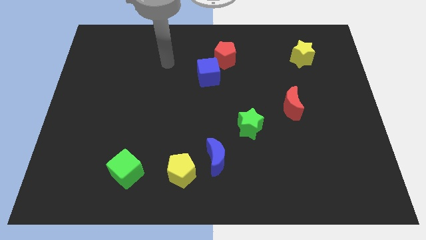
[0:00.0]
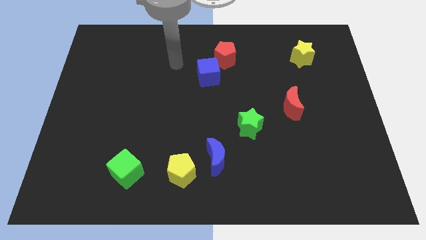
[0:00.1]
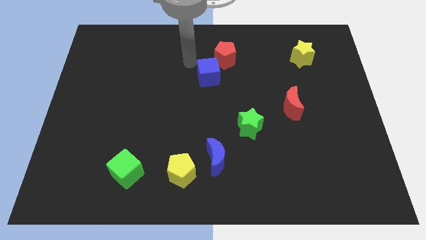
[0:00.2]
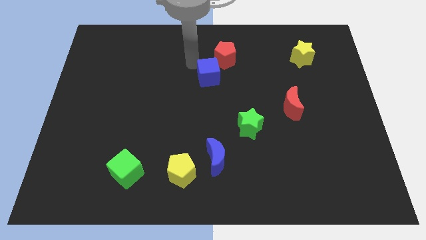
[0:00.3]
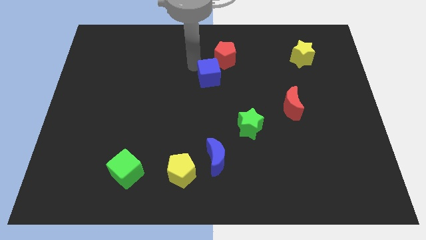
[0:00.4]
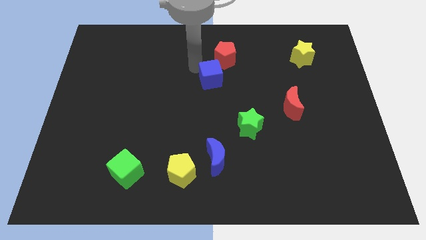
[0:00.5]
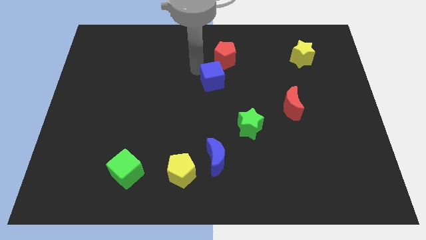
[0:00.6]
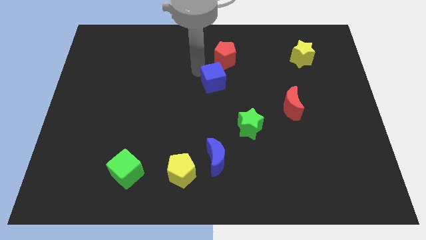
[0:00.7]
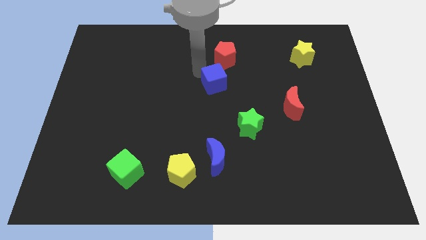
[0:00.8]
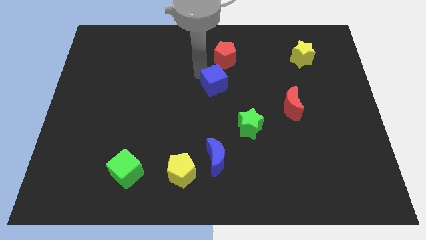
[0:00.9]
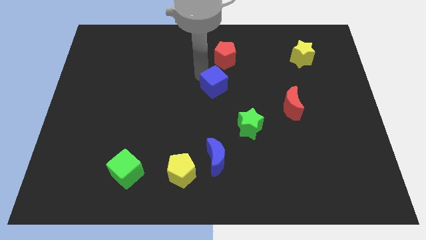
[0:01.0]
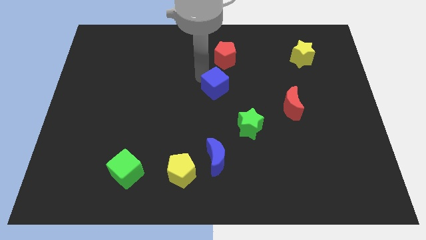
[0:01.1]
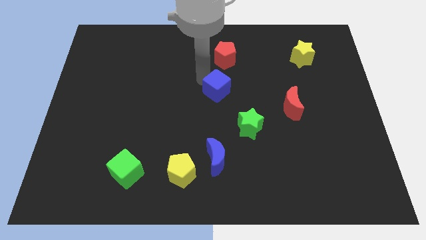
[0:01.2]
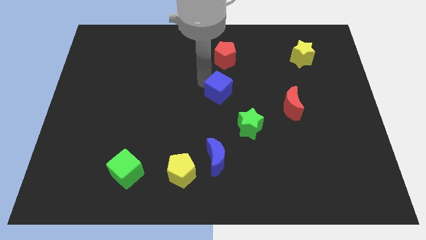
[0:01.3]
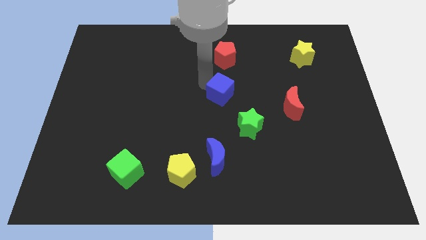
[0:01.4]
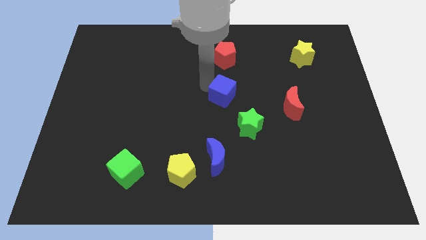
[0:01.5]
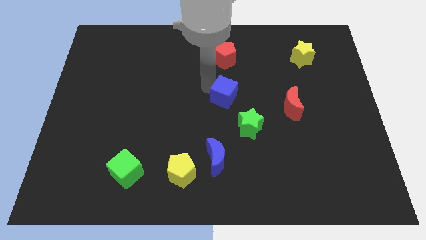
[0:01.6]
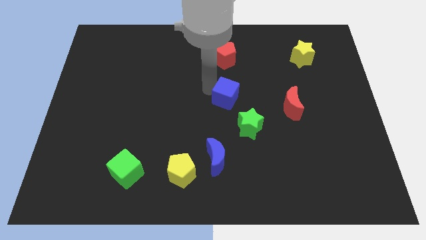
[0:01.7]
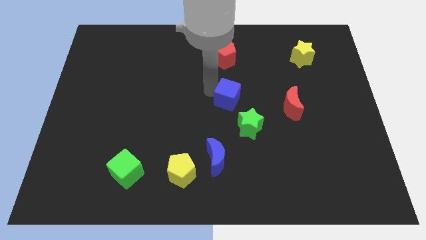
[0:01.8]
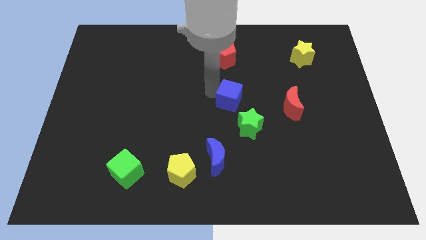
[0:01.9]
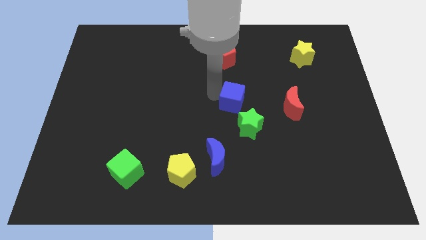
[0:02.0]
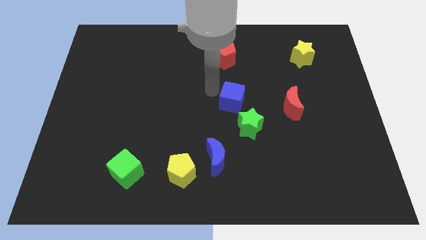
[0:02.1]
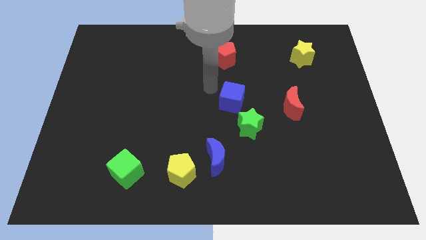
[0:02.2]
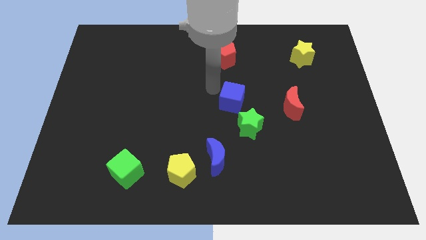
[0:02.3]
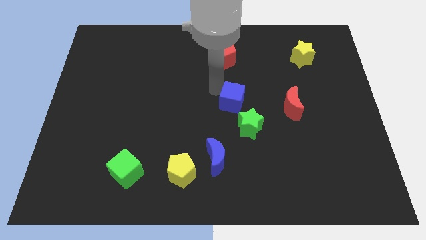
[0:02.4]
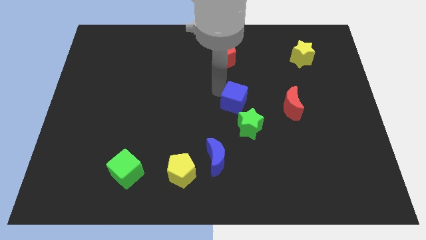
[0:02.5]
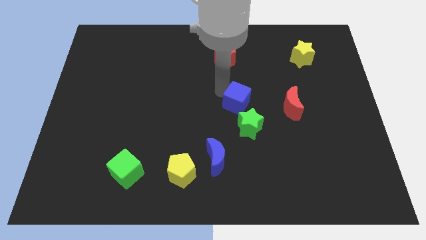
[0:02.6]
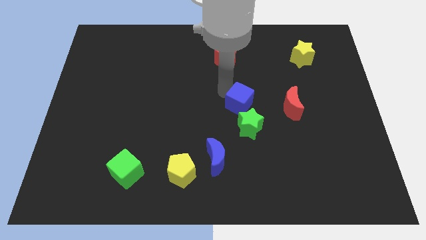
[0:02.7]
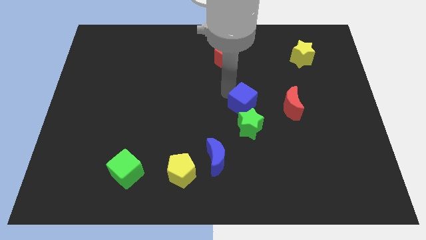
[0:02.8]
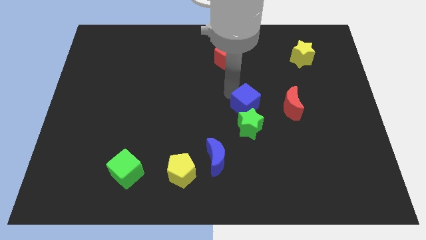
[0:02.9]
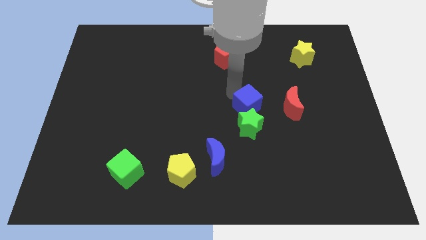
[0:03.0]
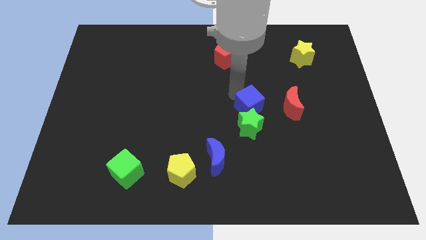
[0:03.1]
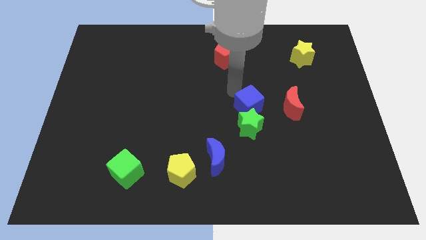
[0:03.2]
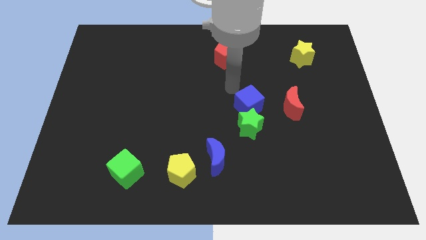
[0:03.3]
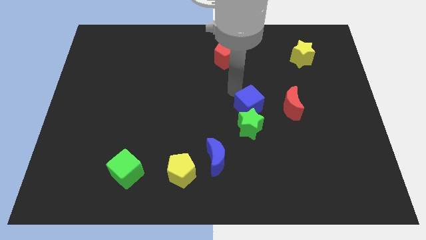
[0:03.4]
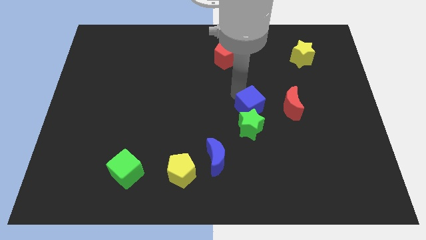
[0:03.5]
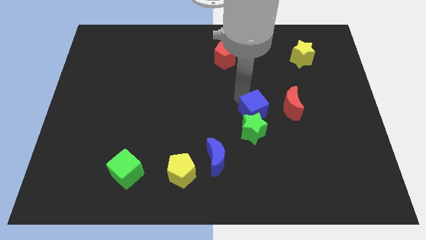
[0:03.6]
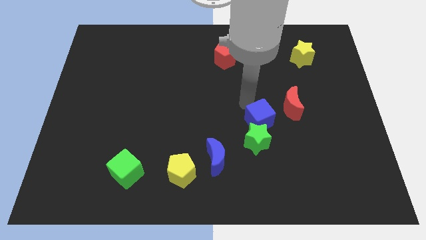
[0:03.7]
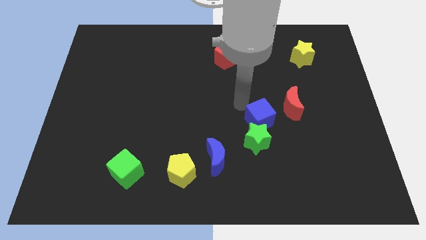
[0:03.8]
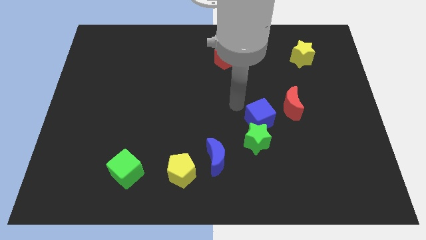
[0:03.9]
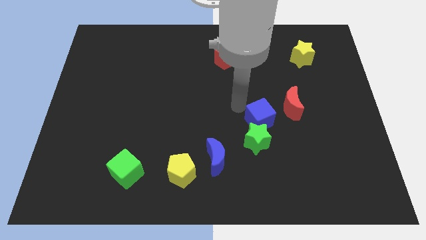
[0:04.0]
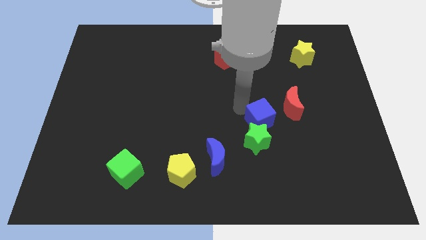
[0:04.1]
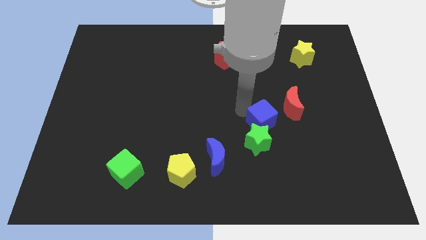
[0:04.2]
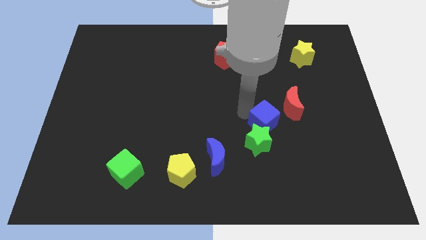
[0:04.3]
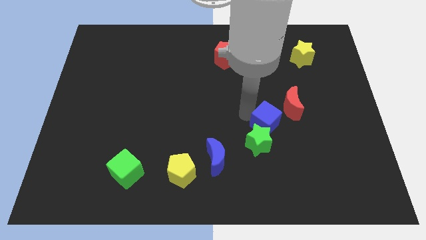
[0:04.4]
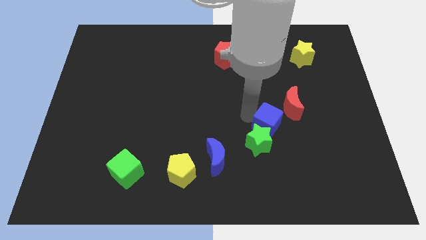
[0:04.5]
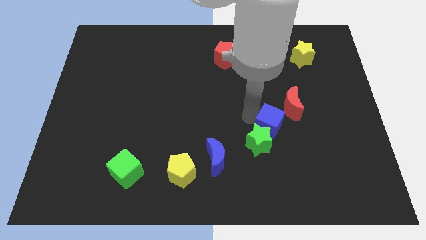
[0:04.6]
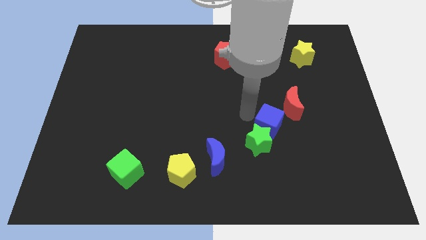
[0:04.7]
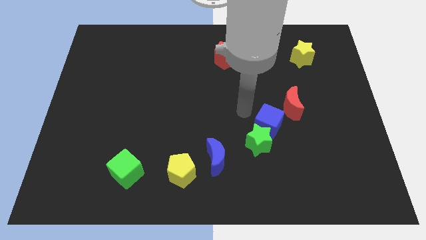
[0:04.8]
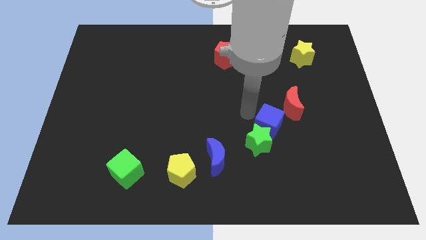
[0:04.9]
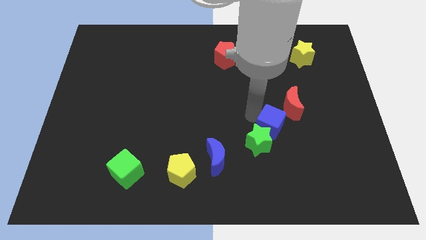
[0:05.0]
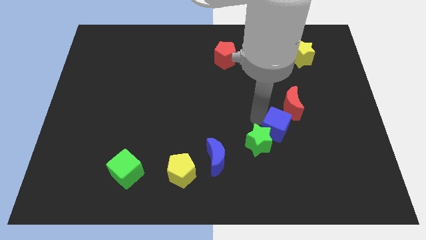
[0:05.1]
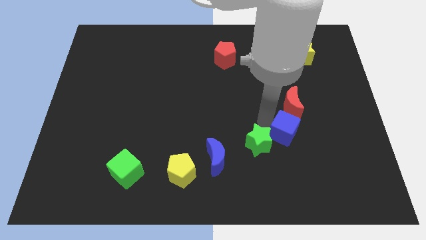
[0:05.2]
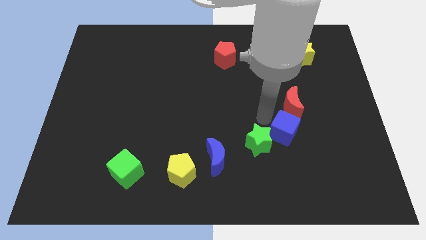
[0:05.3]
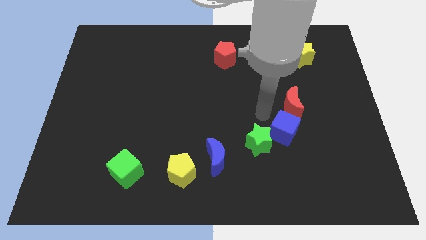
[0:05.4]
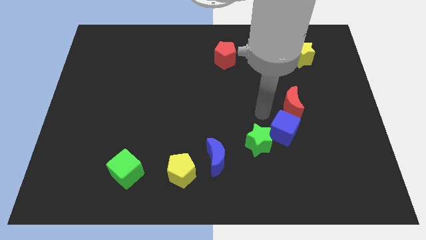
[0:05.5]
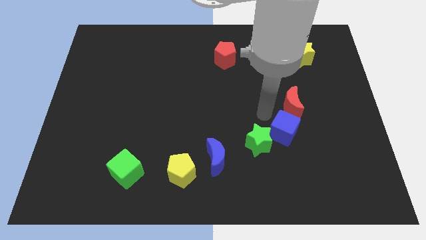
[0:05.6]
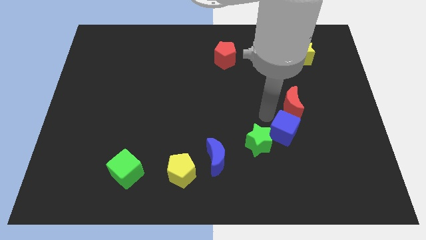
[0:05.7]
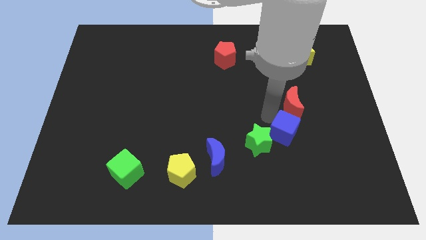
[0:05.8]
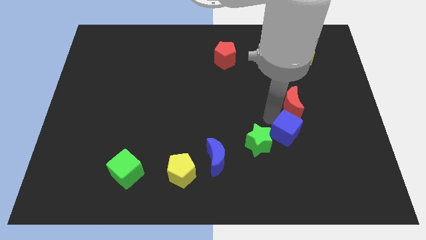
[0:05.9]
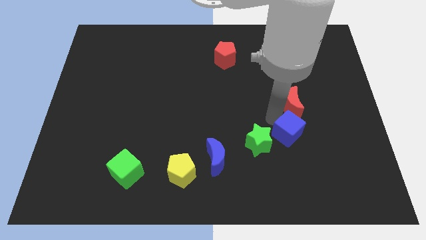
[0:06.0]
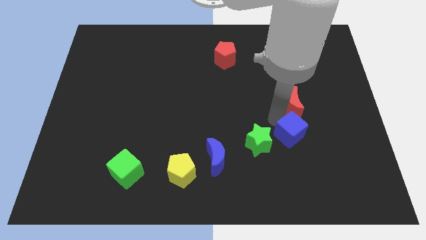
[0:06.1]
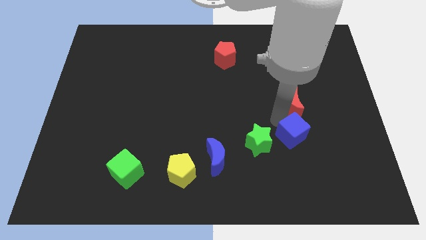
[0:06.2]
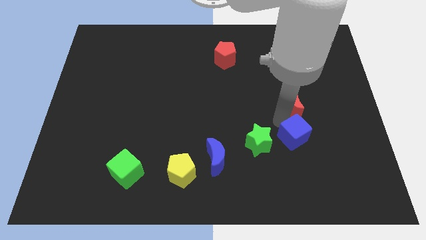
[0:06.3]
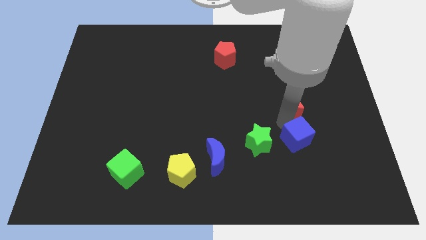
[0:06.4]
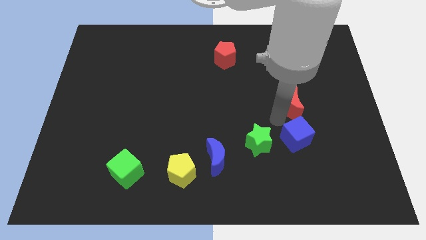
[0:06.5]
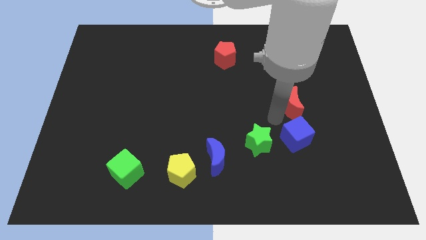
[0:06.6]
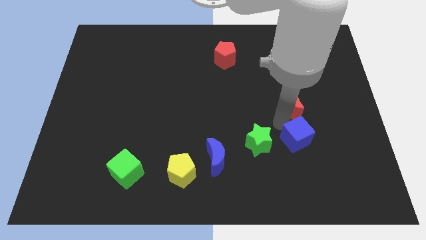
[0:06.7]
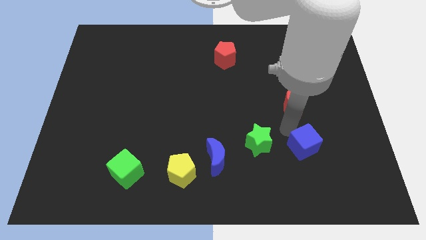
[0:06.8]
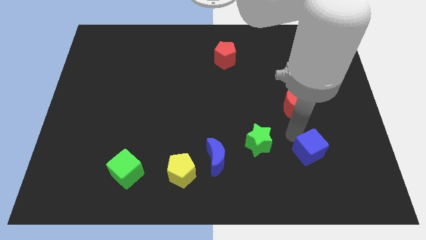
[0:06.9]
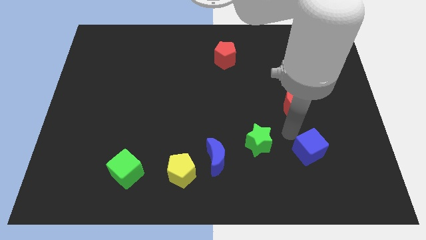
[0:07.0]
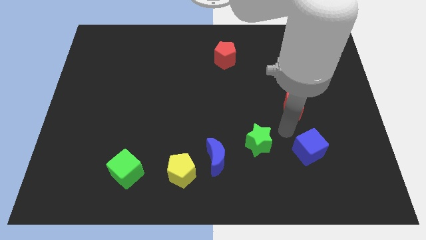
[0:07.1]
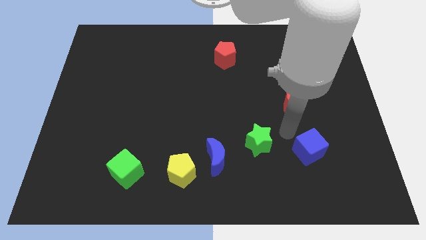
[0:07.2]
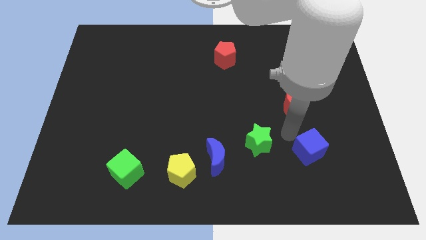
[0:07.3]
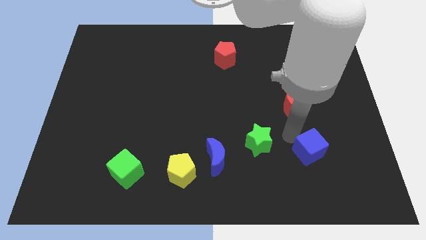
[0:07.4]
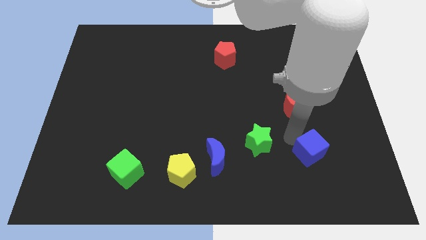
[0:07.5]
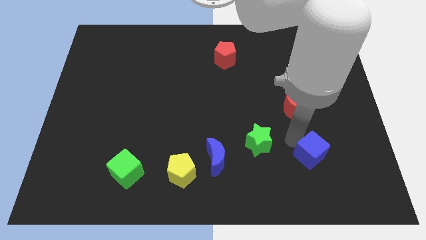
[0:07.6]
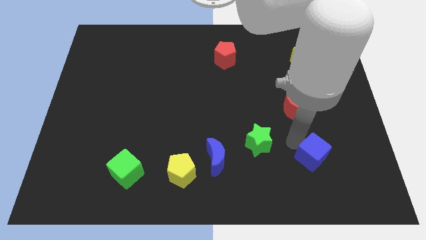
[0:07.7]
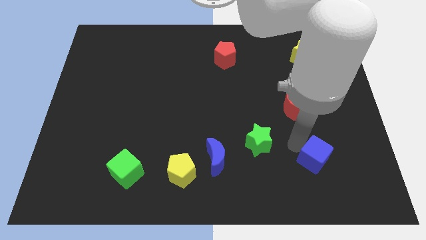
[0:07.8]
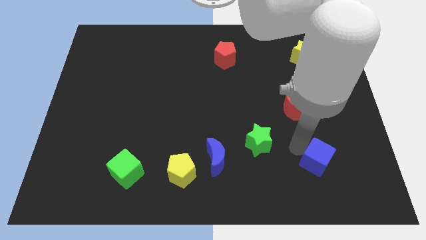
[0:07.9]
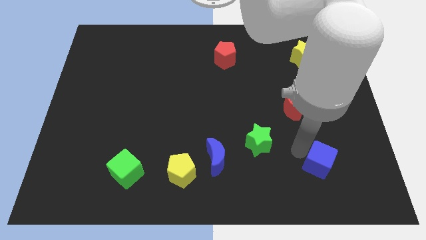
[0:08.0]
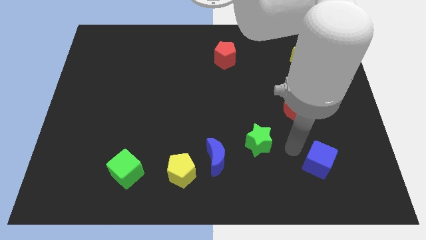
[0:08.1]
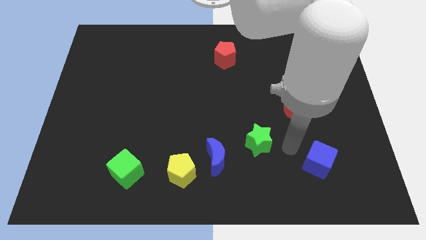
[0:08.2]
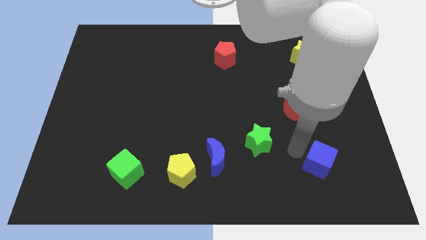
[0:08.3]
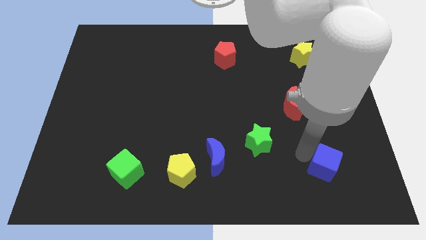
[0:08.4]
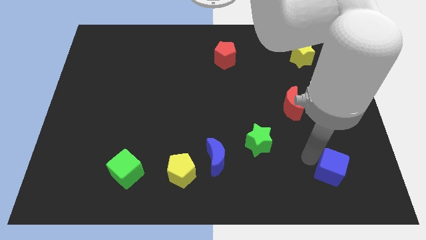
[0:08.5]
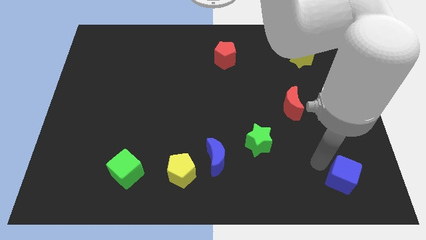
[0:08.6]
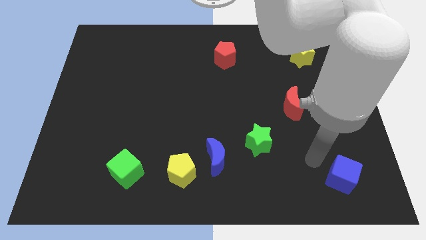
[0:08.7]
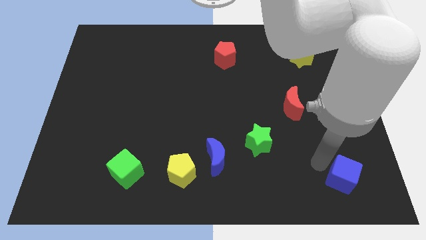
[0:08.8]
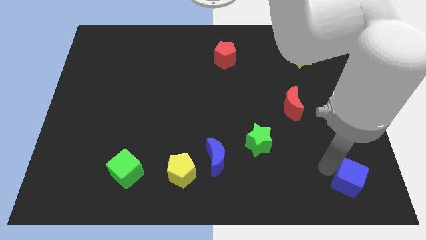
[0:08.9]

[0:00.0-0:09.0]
slide the blue cube to the lower right corner
